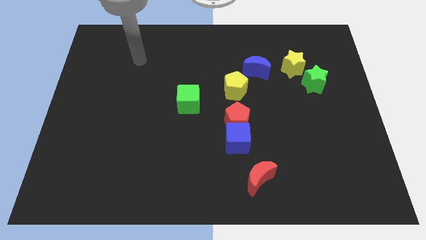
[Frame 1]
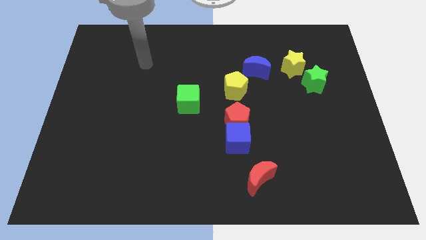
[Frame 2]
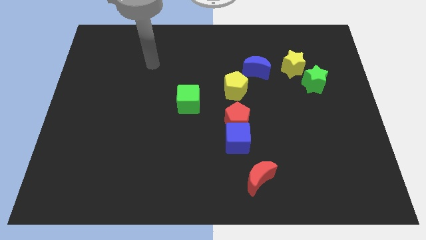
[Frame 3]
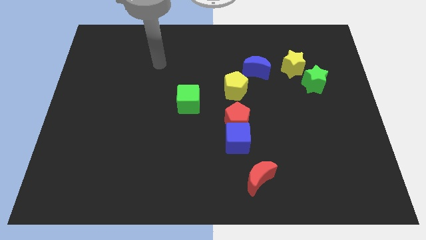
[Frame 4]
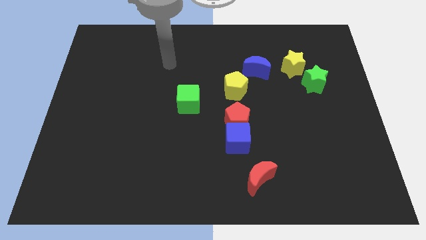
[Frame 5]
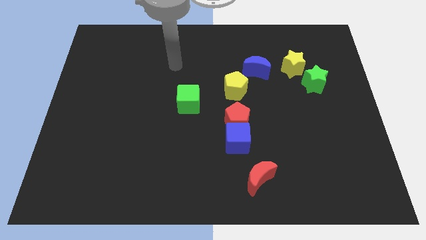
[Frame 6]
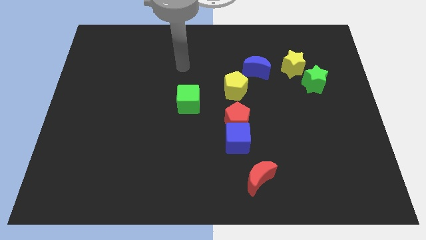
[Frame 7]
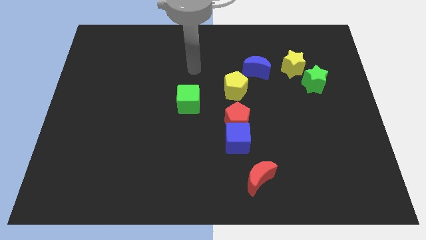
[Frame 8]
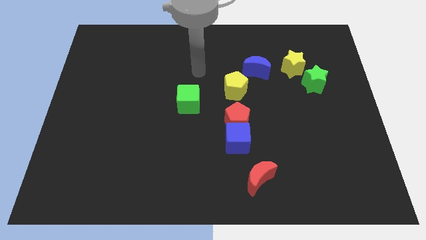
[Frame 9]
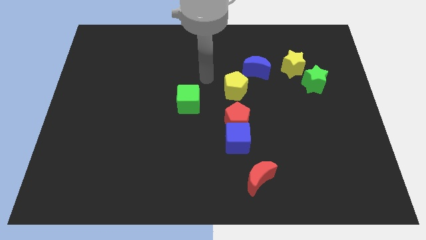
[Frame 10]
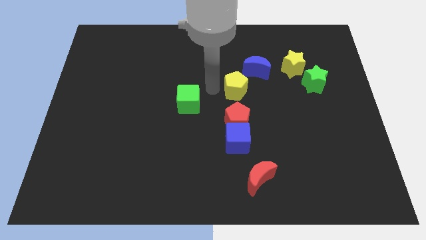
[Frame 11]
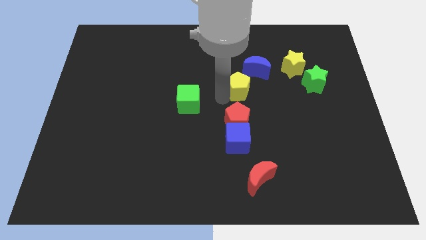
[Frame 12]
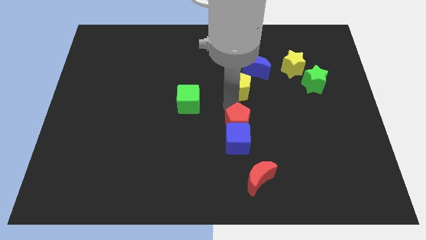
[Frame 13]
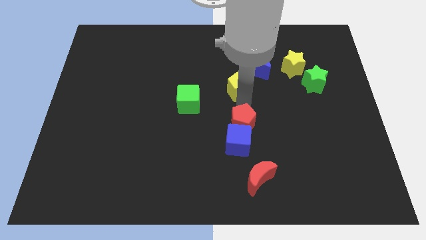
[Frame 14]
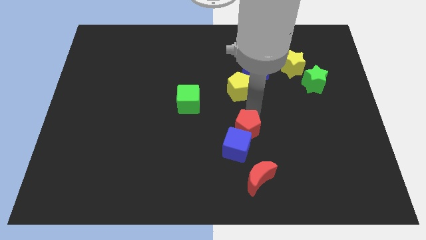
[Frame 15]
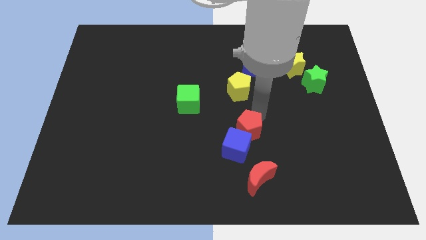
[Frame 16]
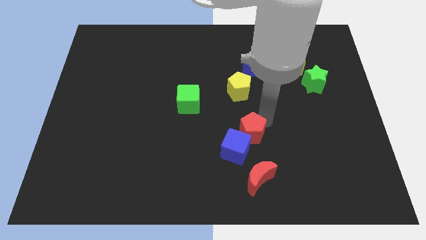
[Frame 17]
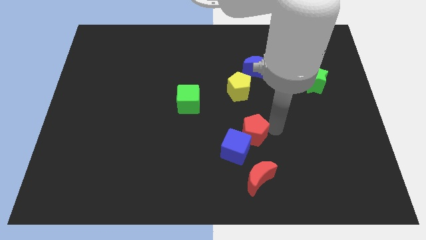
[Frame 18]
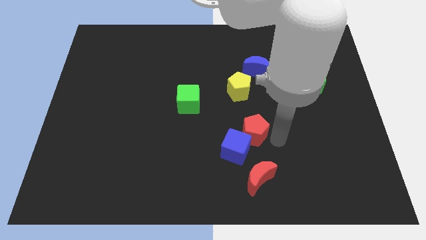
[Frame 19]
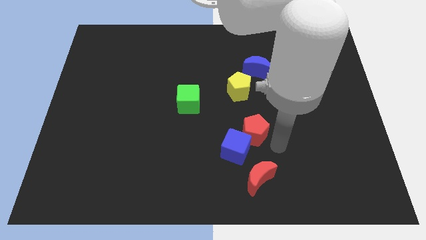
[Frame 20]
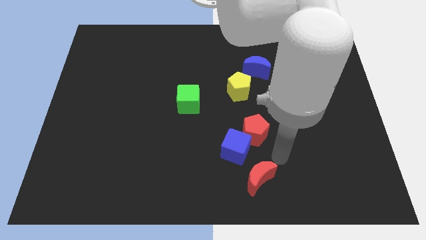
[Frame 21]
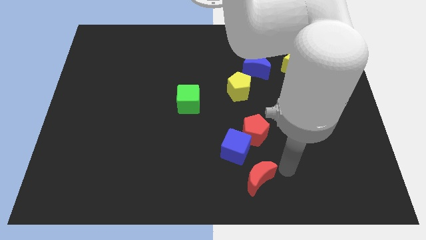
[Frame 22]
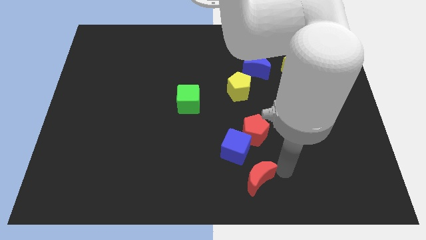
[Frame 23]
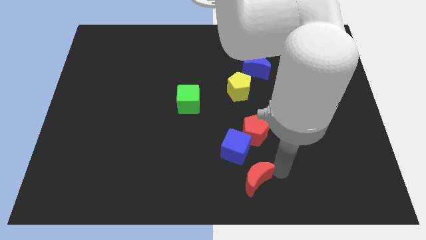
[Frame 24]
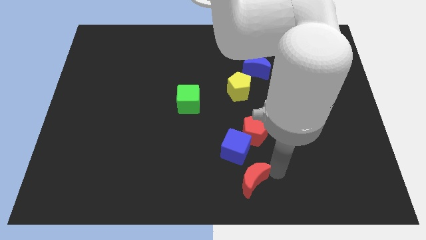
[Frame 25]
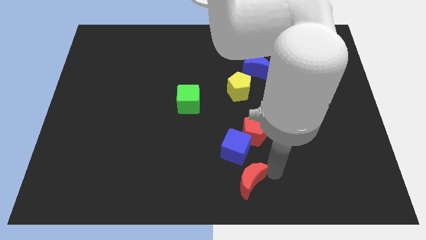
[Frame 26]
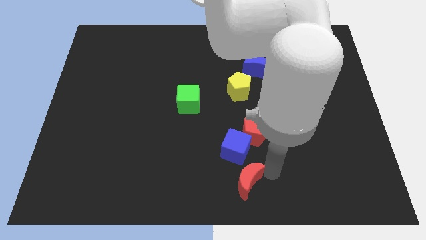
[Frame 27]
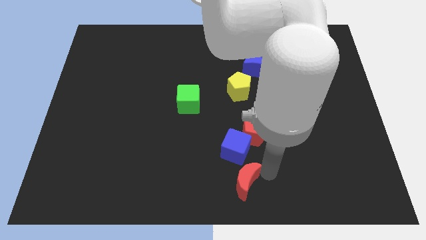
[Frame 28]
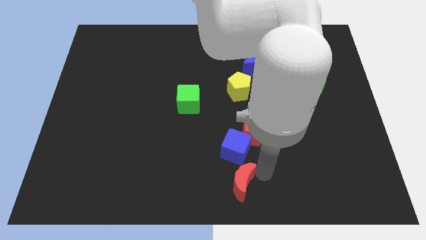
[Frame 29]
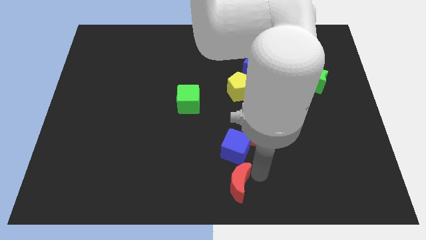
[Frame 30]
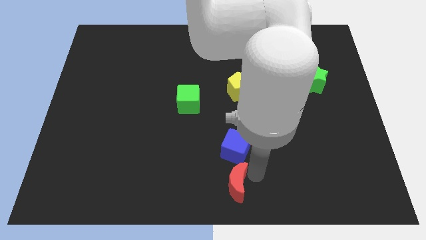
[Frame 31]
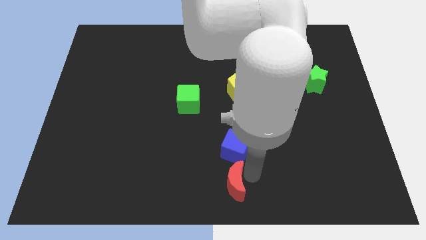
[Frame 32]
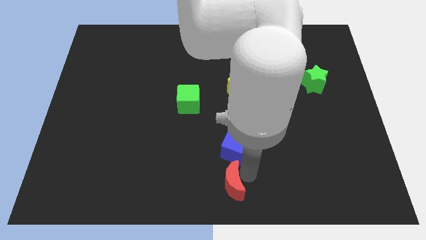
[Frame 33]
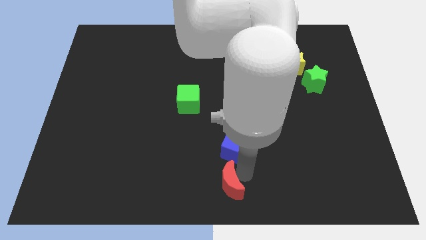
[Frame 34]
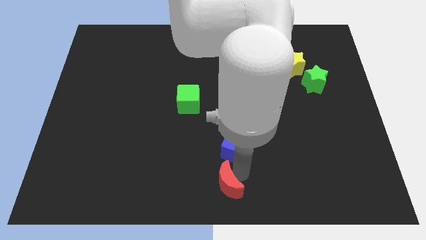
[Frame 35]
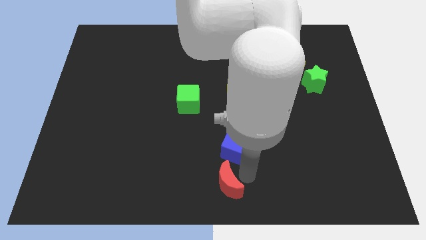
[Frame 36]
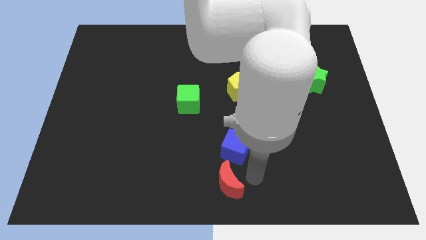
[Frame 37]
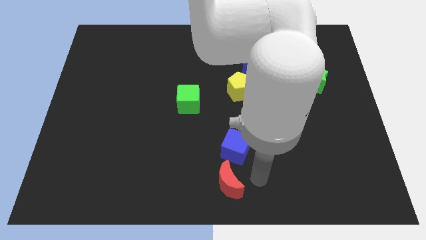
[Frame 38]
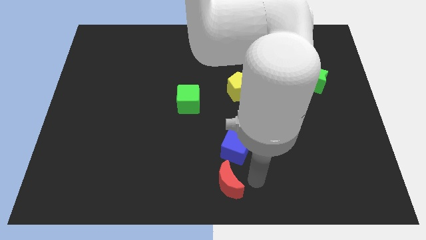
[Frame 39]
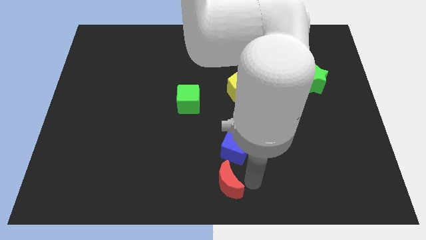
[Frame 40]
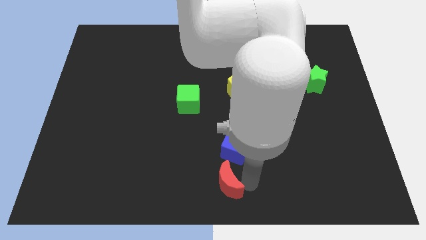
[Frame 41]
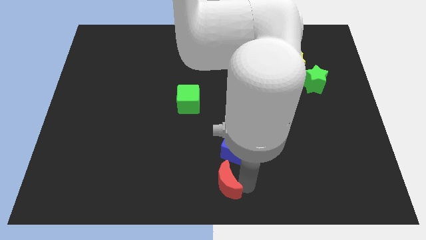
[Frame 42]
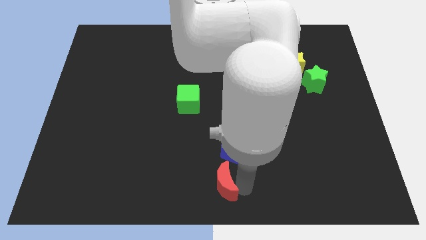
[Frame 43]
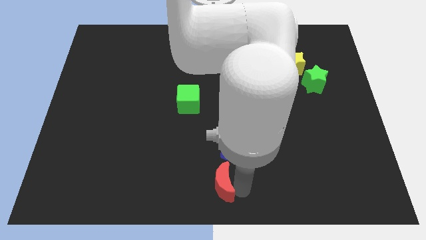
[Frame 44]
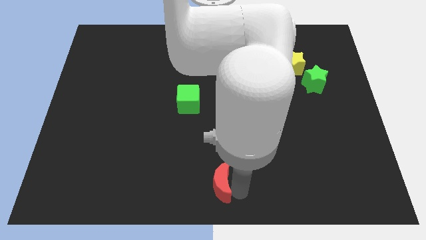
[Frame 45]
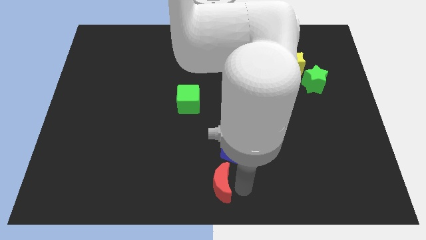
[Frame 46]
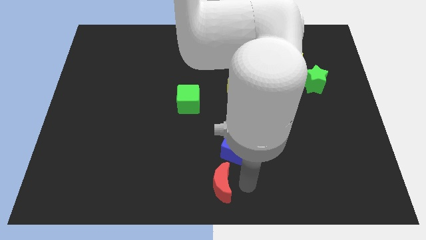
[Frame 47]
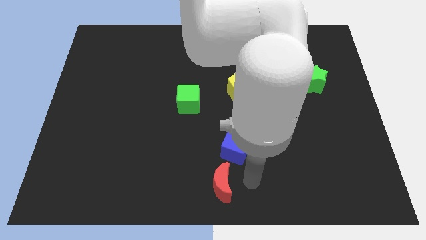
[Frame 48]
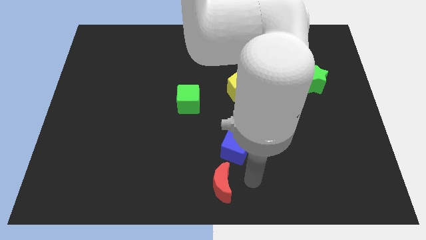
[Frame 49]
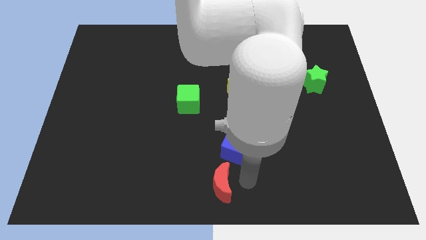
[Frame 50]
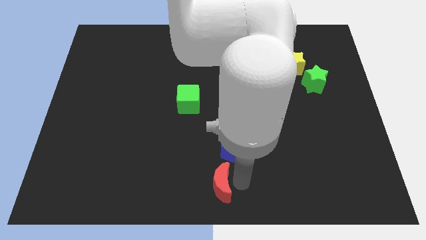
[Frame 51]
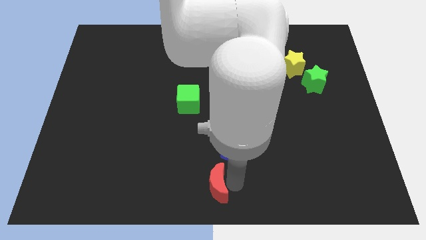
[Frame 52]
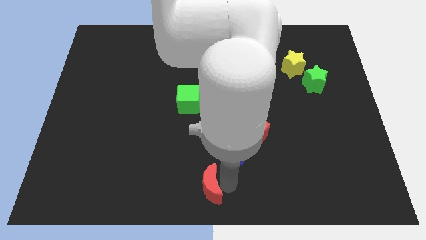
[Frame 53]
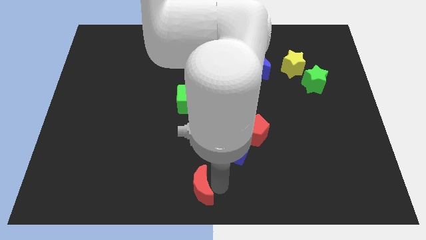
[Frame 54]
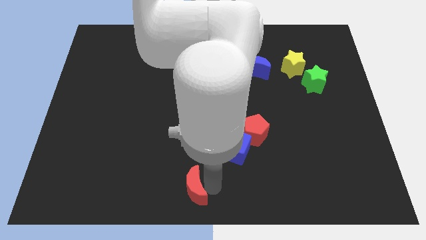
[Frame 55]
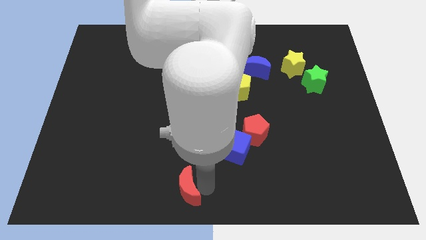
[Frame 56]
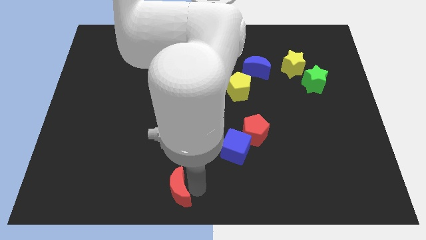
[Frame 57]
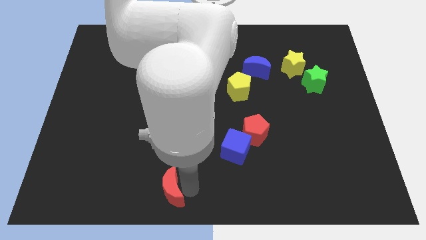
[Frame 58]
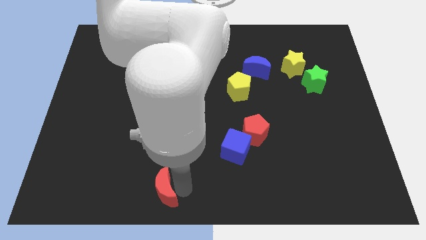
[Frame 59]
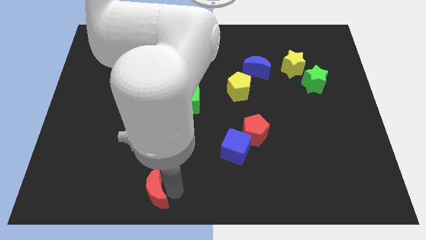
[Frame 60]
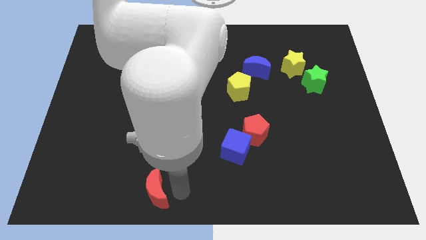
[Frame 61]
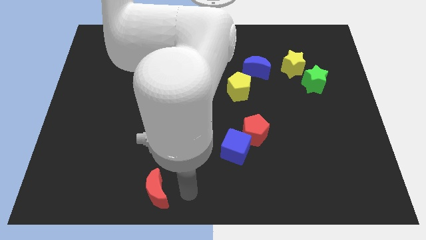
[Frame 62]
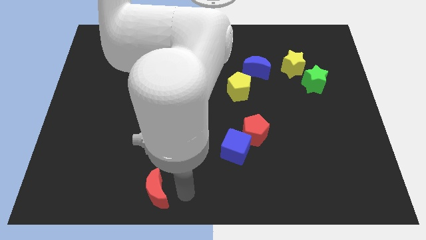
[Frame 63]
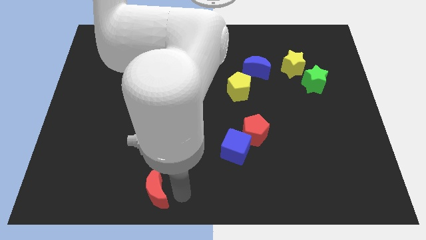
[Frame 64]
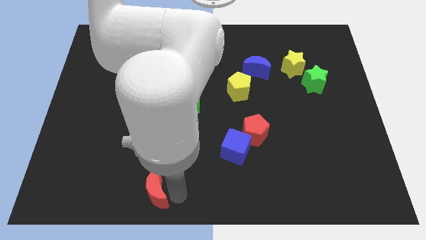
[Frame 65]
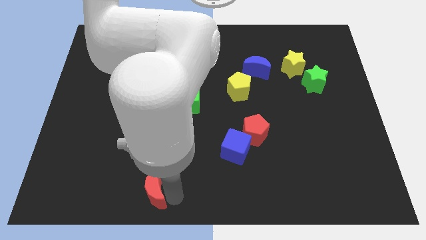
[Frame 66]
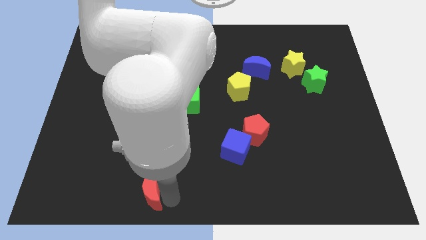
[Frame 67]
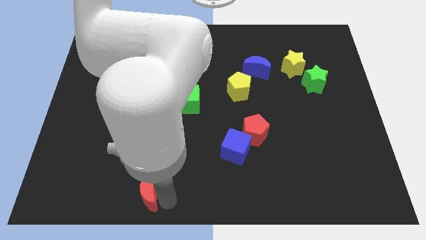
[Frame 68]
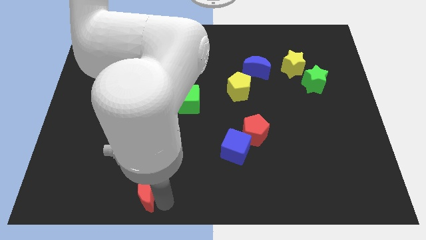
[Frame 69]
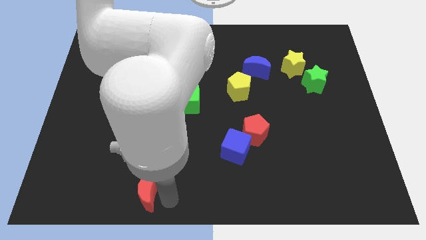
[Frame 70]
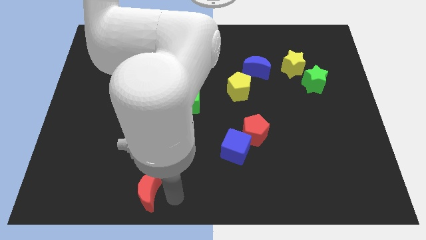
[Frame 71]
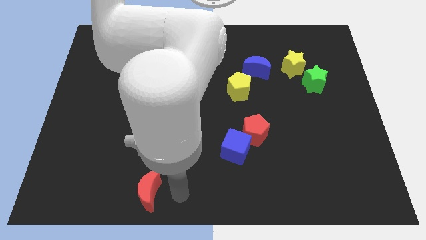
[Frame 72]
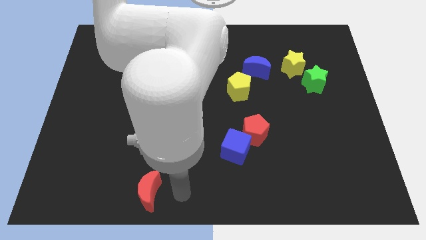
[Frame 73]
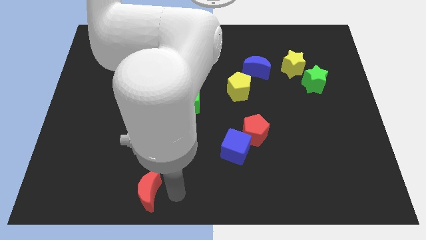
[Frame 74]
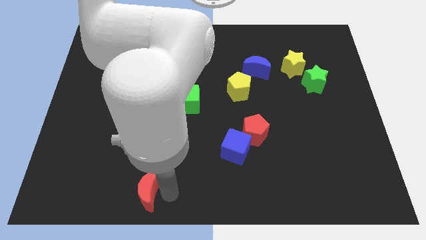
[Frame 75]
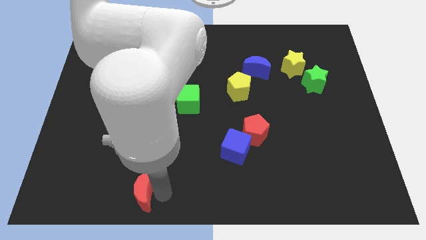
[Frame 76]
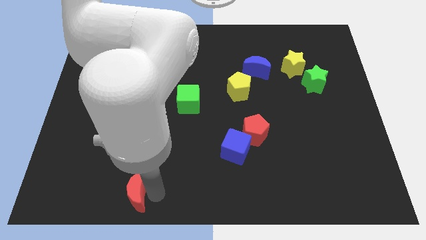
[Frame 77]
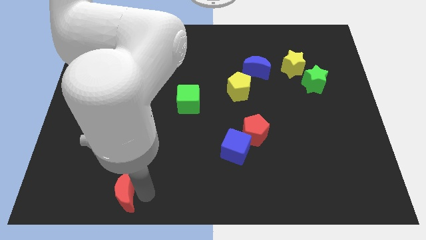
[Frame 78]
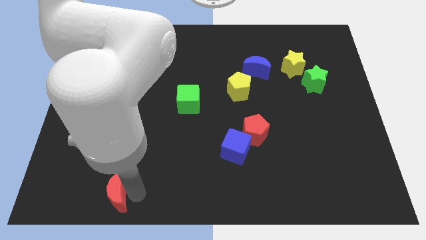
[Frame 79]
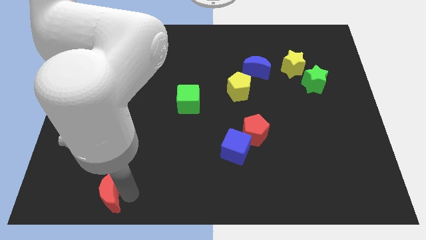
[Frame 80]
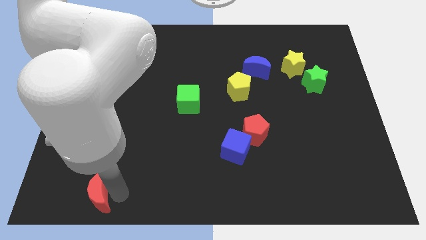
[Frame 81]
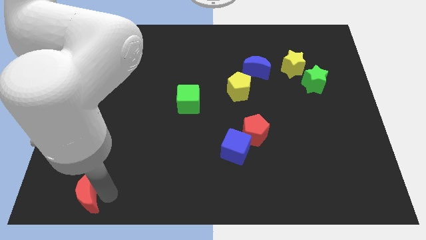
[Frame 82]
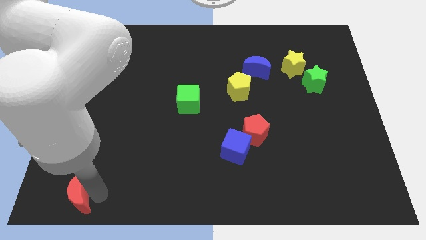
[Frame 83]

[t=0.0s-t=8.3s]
push the red moon to the lower left corner
